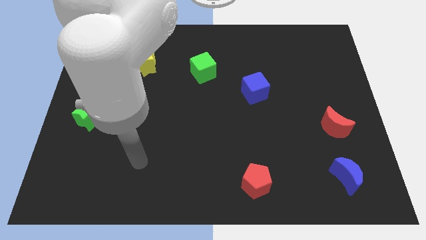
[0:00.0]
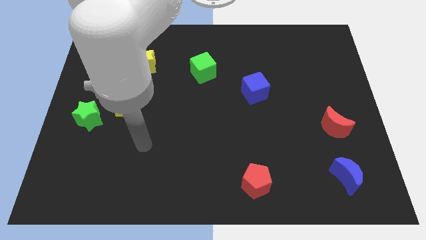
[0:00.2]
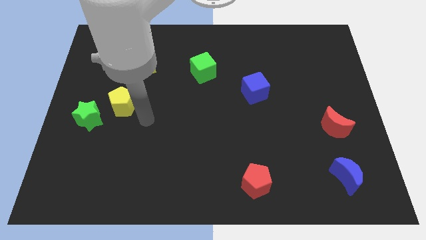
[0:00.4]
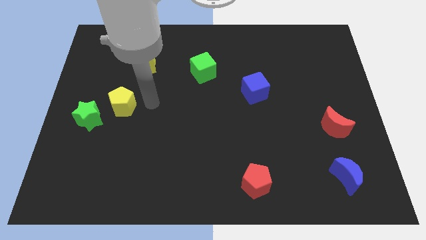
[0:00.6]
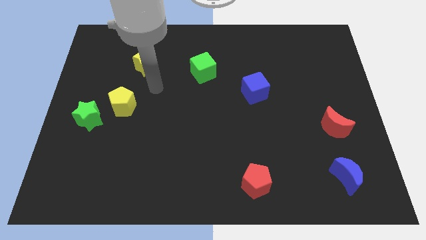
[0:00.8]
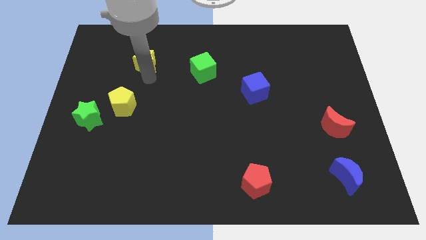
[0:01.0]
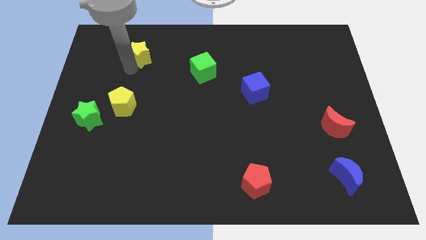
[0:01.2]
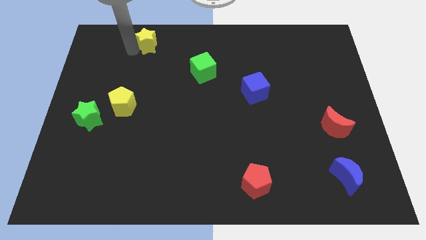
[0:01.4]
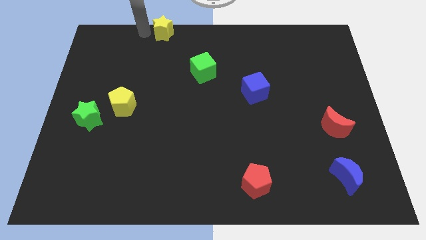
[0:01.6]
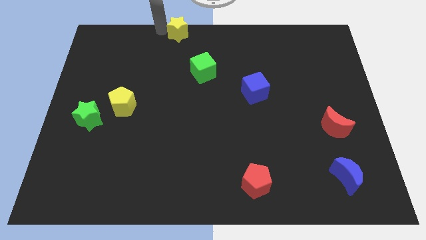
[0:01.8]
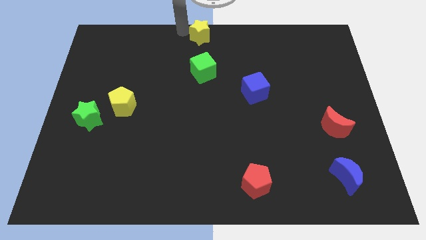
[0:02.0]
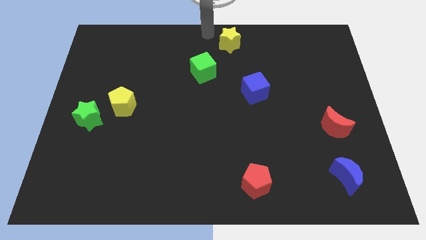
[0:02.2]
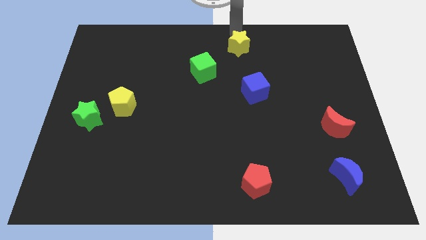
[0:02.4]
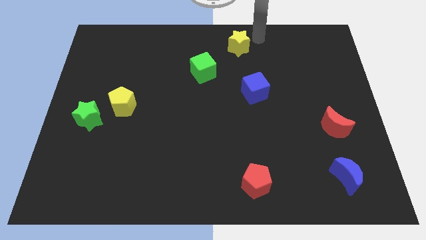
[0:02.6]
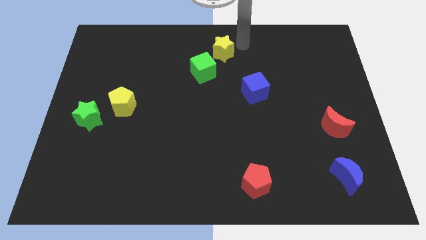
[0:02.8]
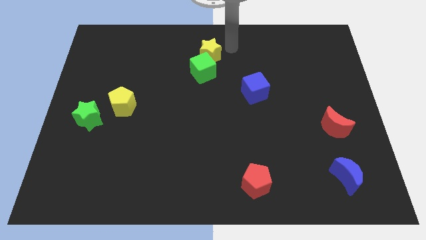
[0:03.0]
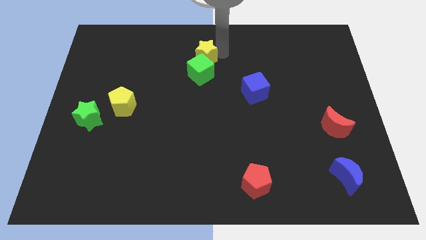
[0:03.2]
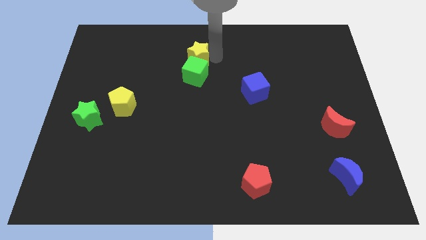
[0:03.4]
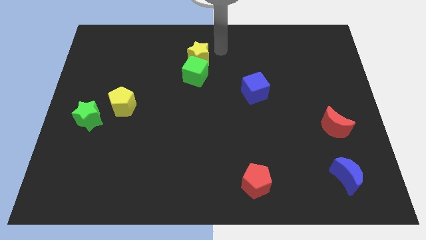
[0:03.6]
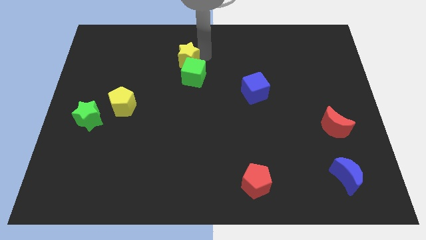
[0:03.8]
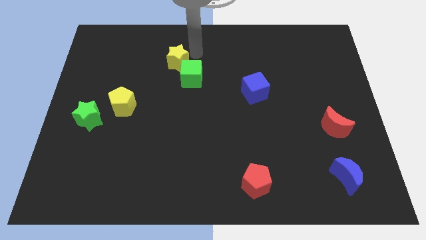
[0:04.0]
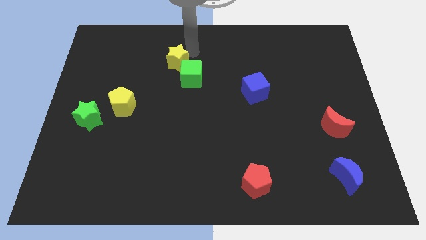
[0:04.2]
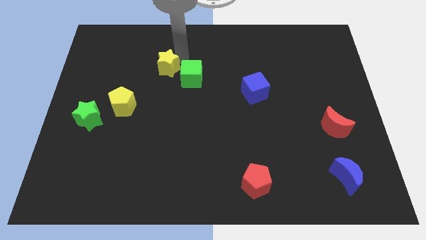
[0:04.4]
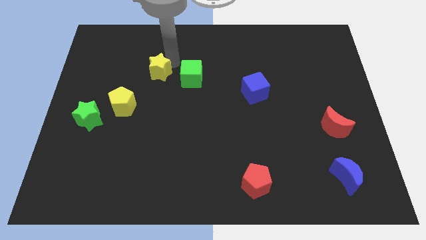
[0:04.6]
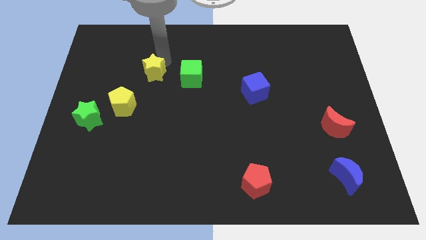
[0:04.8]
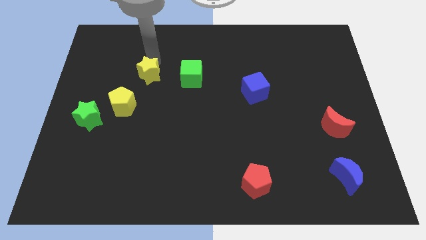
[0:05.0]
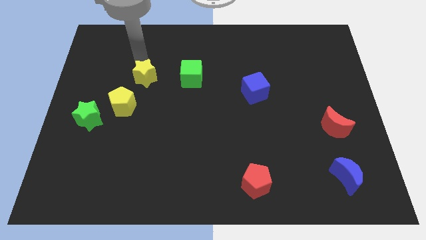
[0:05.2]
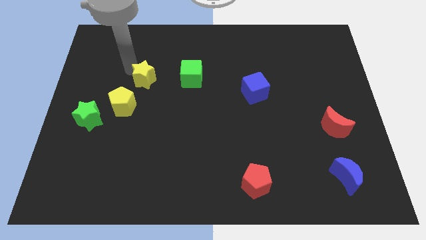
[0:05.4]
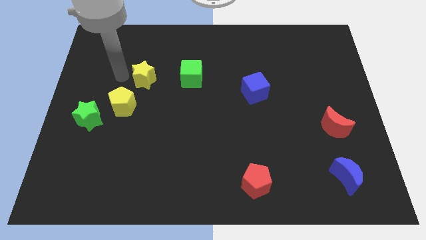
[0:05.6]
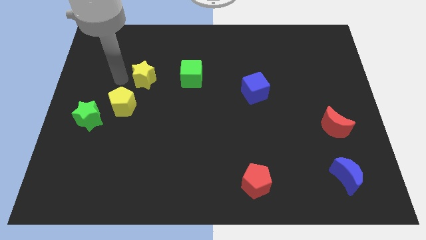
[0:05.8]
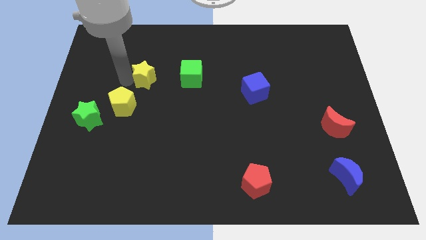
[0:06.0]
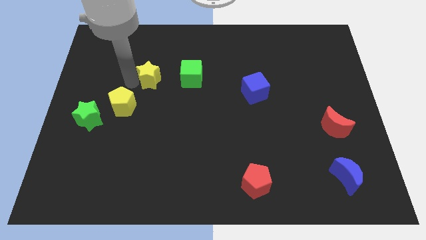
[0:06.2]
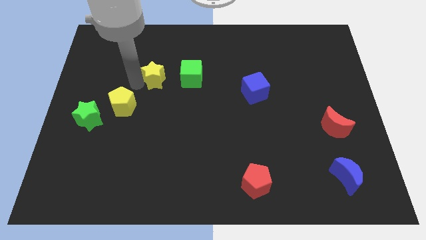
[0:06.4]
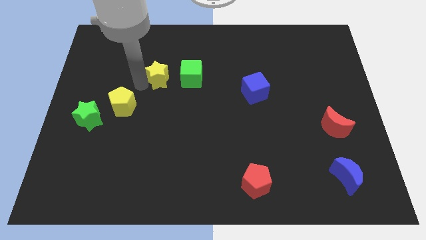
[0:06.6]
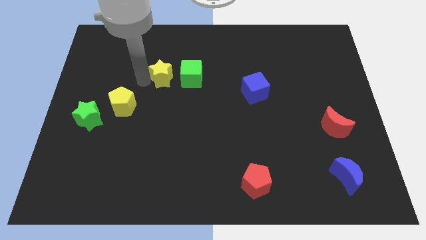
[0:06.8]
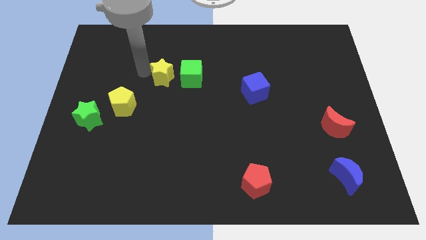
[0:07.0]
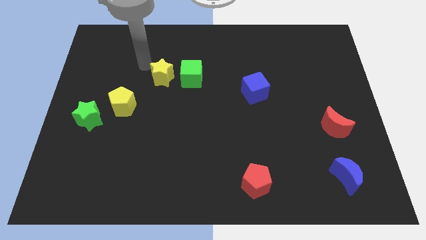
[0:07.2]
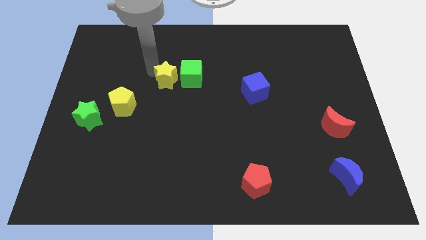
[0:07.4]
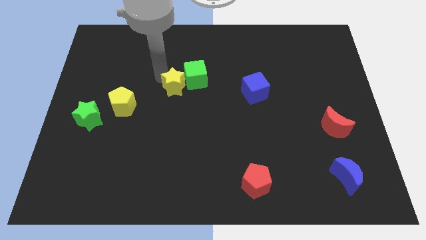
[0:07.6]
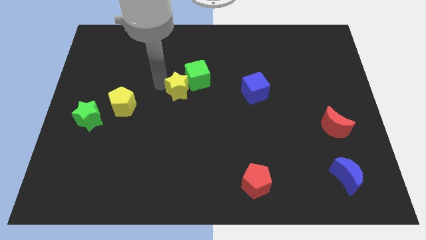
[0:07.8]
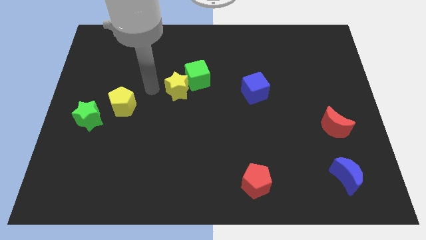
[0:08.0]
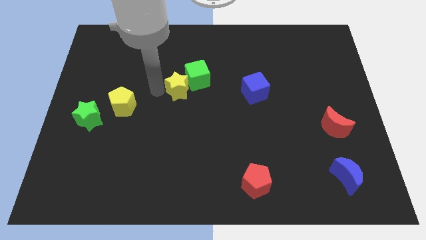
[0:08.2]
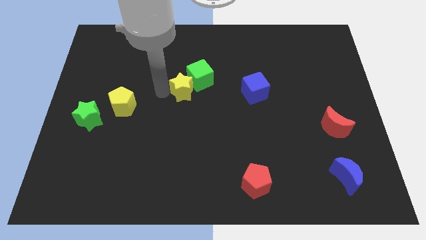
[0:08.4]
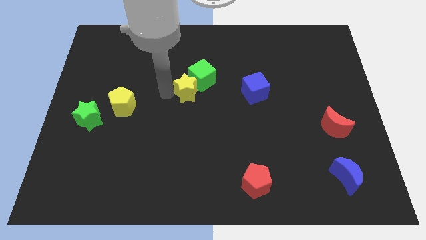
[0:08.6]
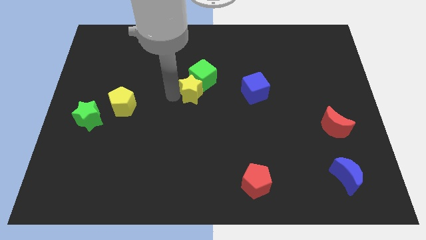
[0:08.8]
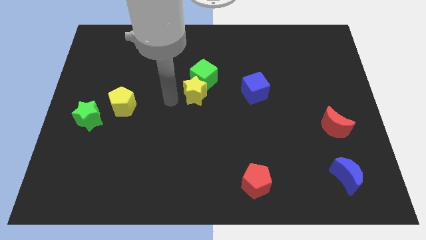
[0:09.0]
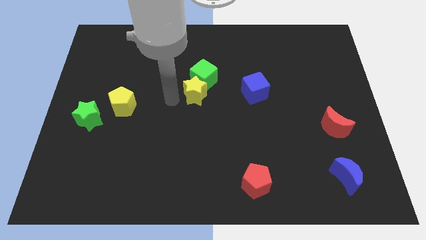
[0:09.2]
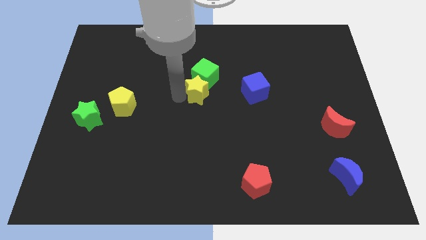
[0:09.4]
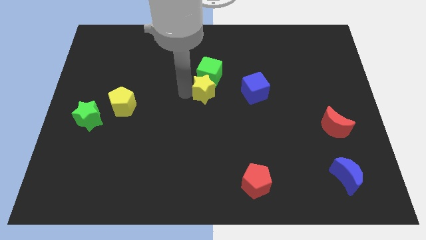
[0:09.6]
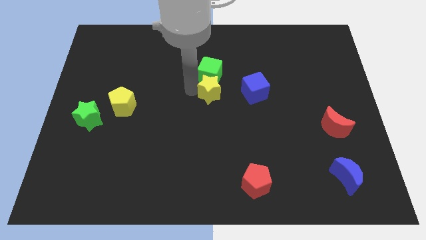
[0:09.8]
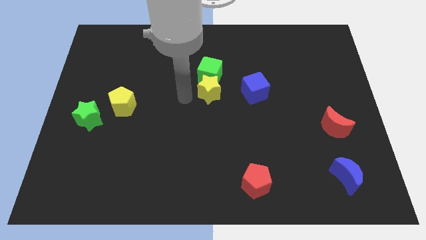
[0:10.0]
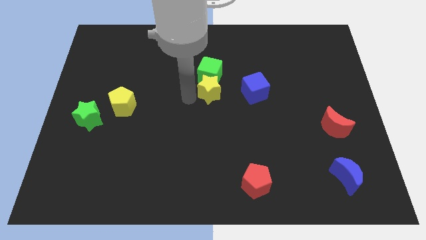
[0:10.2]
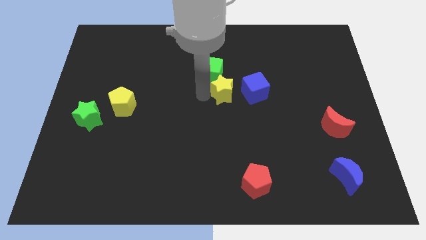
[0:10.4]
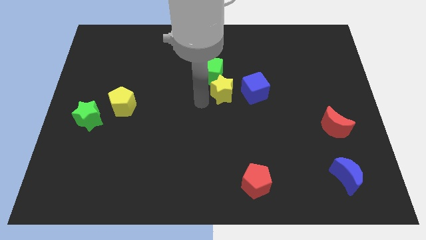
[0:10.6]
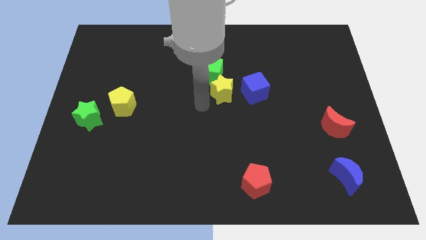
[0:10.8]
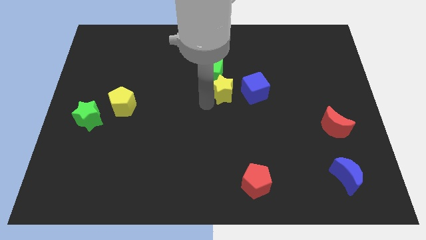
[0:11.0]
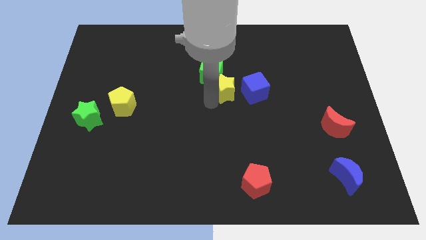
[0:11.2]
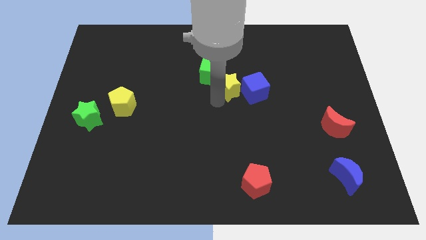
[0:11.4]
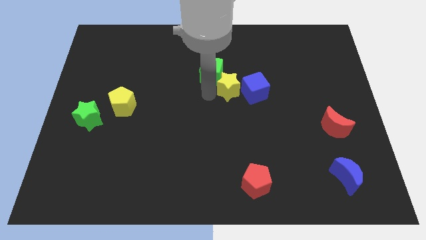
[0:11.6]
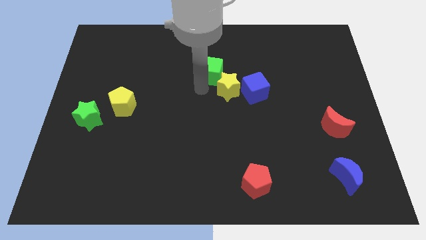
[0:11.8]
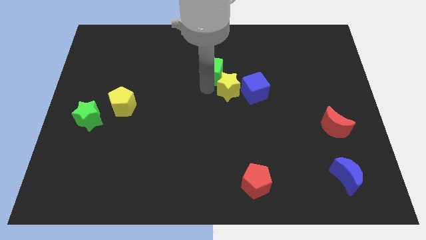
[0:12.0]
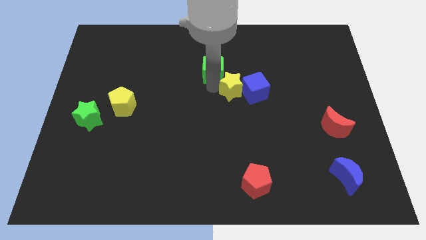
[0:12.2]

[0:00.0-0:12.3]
move the yellow star to the blue cube

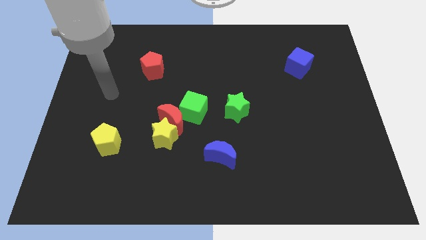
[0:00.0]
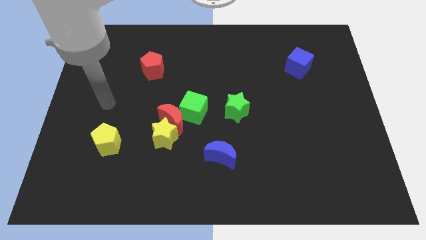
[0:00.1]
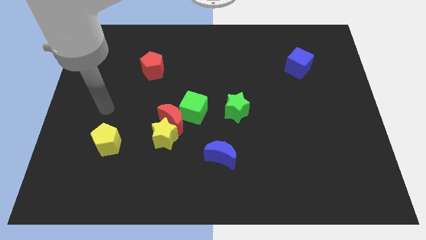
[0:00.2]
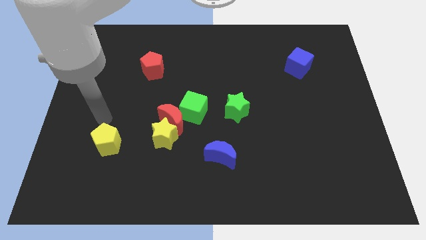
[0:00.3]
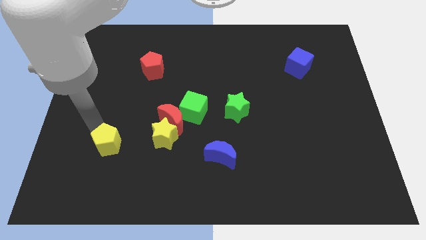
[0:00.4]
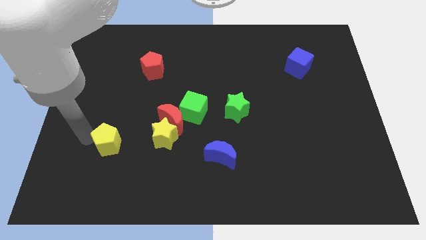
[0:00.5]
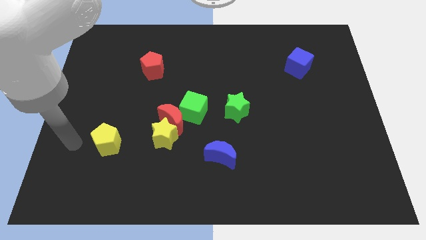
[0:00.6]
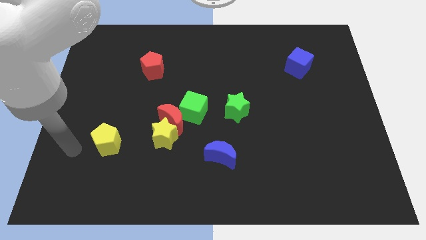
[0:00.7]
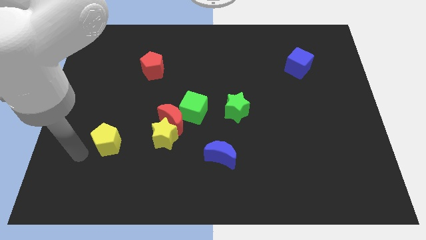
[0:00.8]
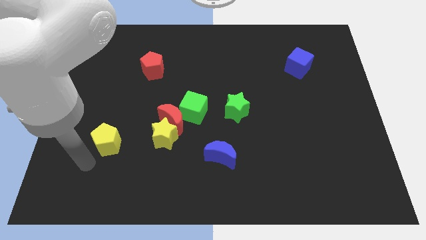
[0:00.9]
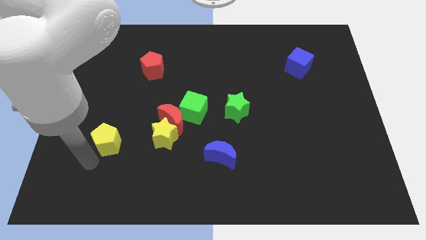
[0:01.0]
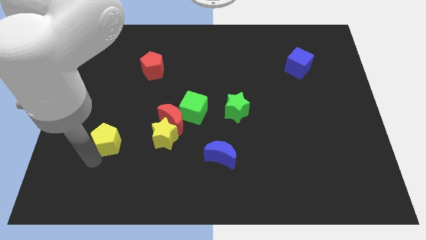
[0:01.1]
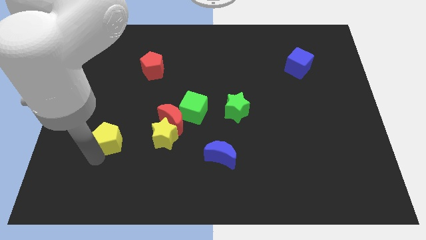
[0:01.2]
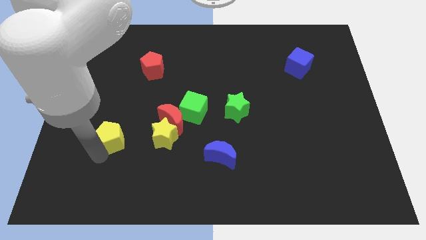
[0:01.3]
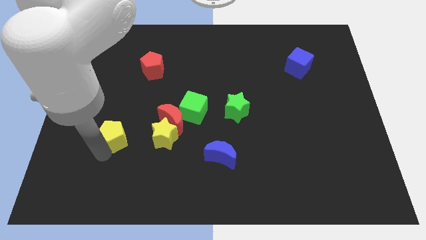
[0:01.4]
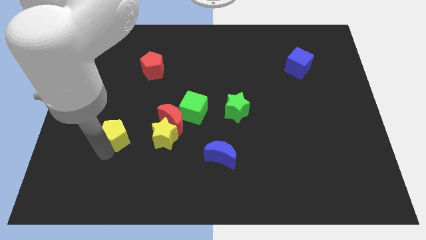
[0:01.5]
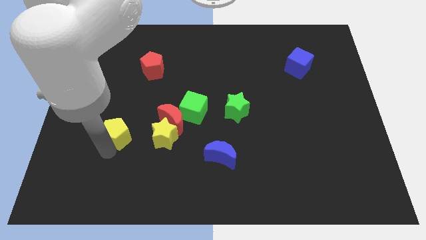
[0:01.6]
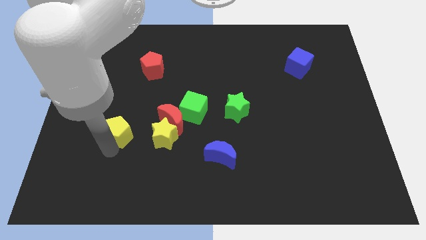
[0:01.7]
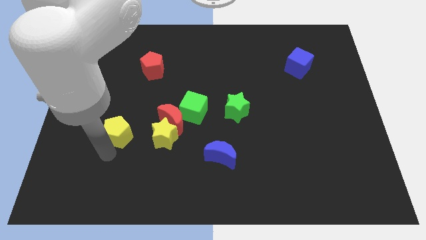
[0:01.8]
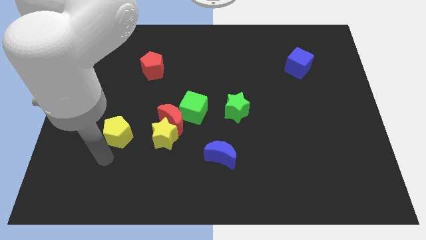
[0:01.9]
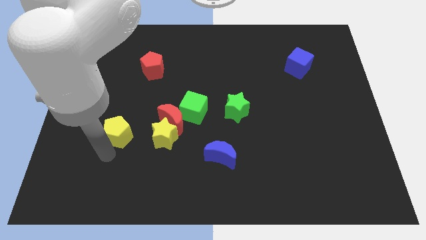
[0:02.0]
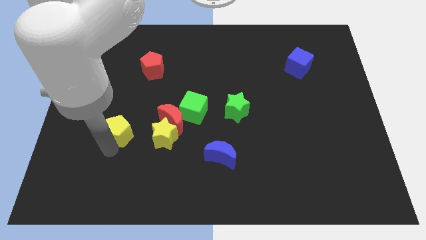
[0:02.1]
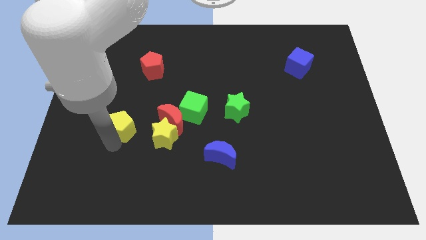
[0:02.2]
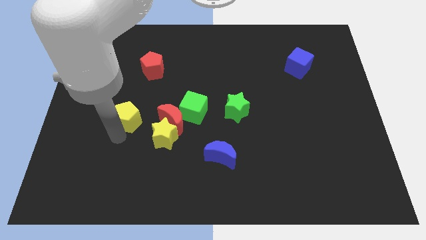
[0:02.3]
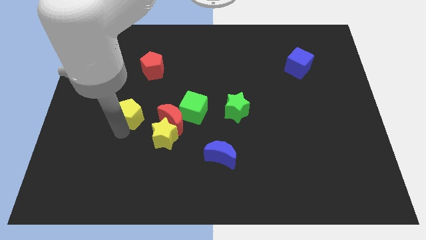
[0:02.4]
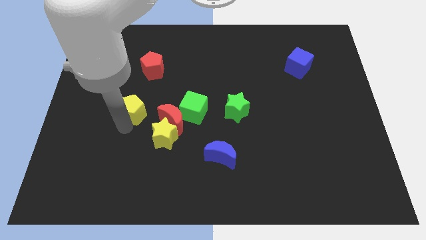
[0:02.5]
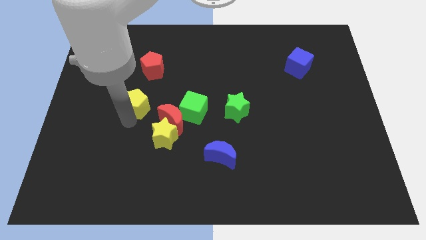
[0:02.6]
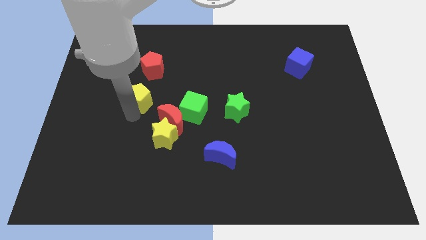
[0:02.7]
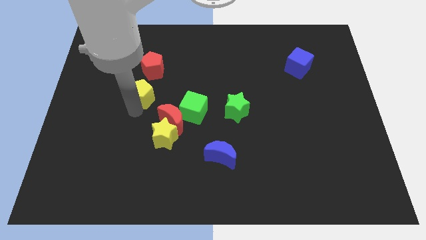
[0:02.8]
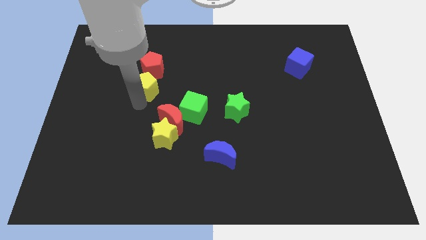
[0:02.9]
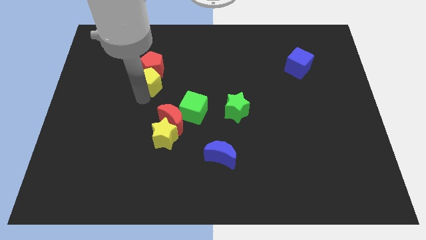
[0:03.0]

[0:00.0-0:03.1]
push the yellow pentagon next to the red pentagon
